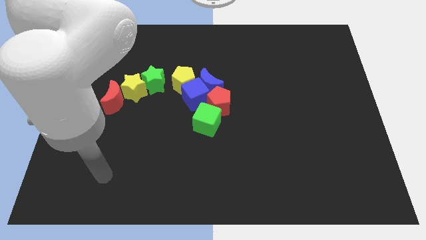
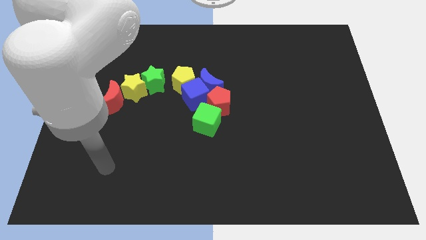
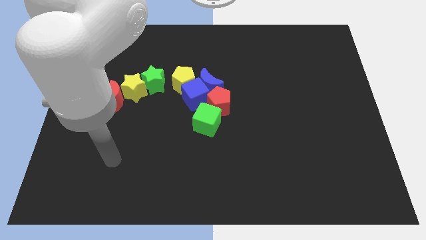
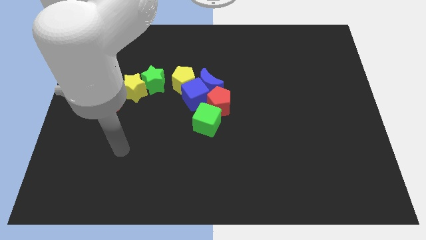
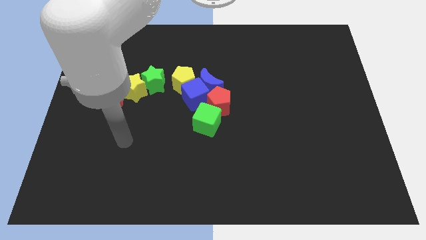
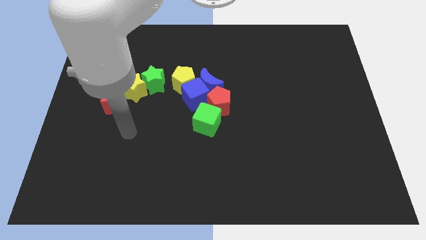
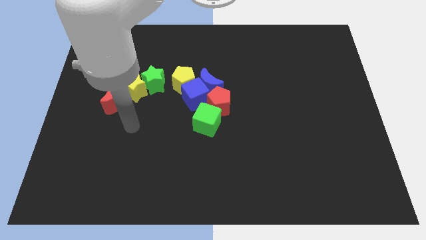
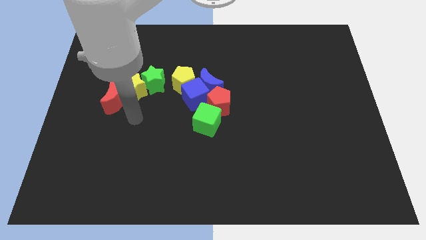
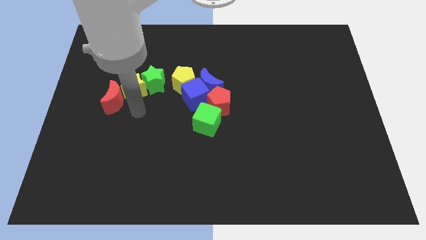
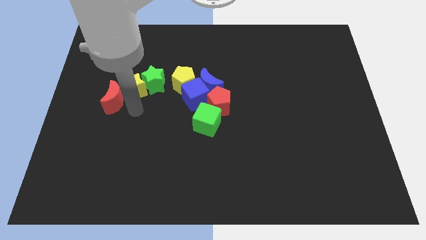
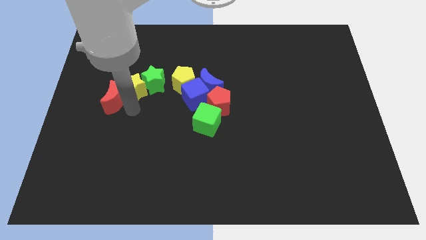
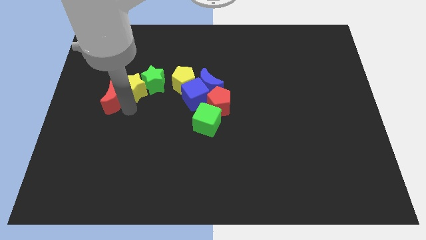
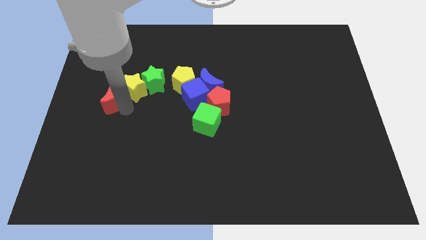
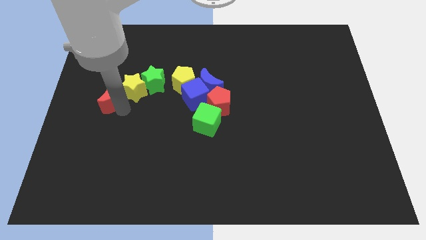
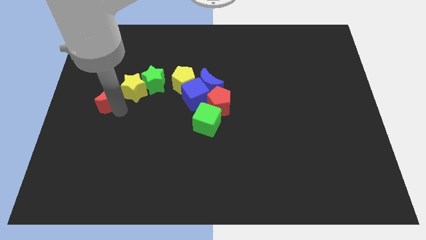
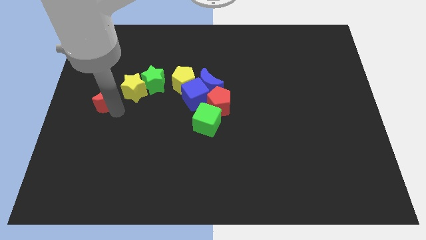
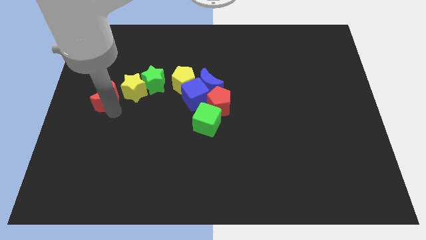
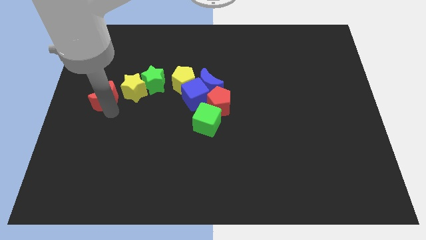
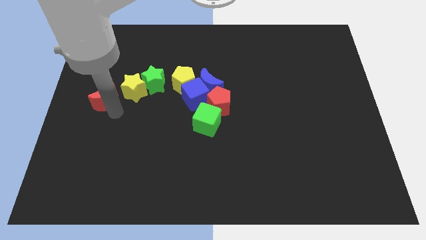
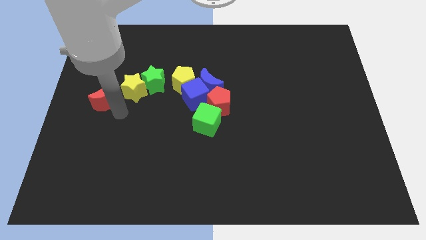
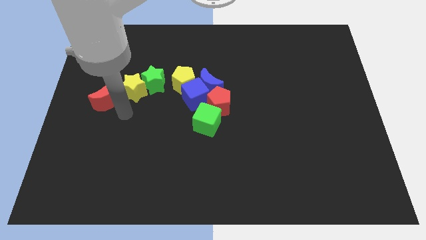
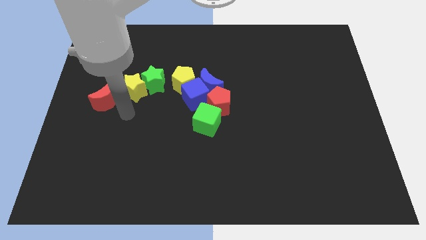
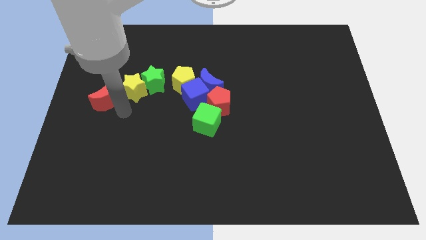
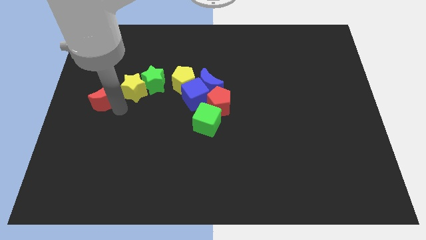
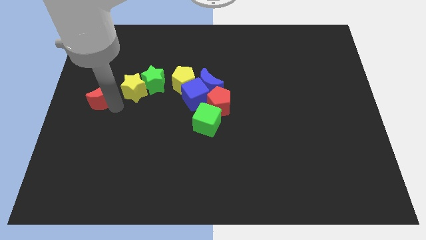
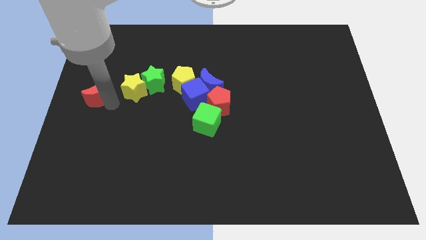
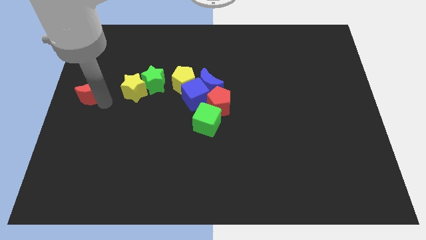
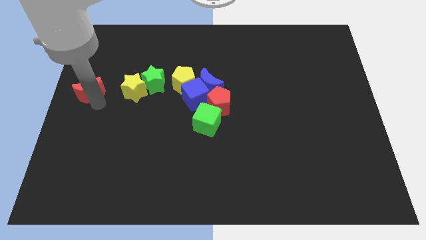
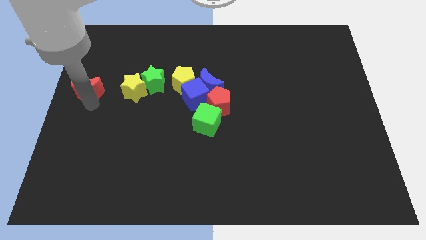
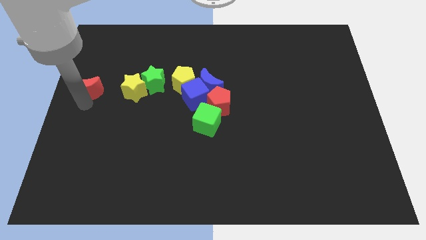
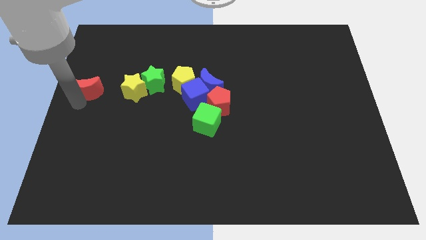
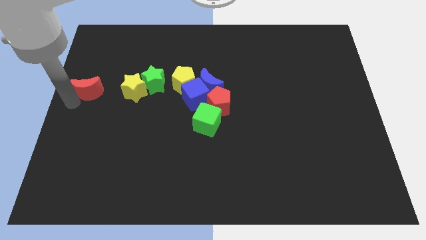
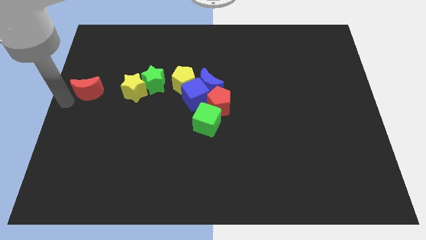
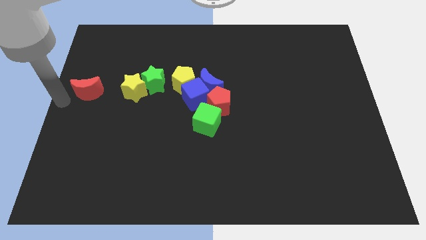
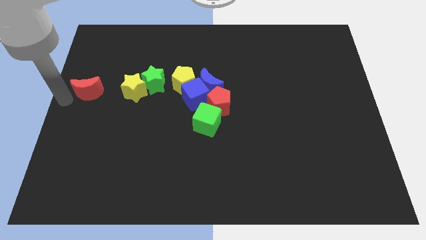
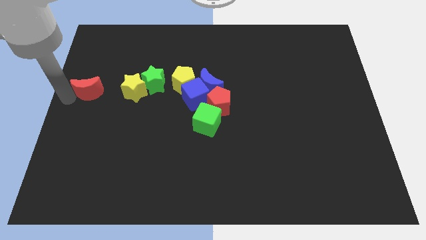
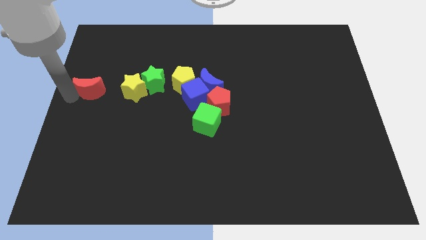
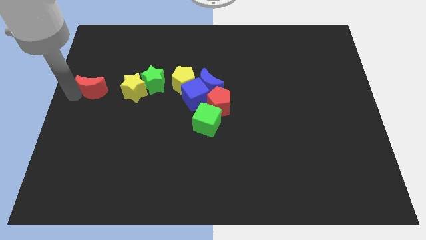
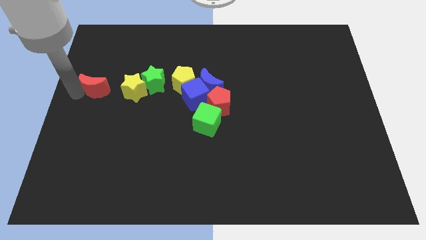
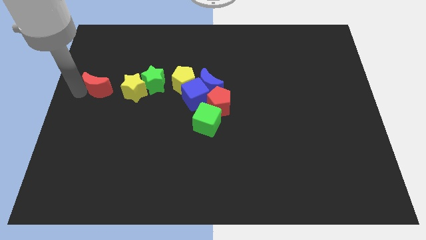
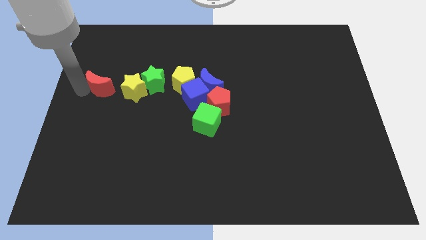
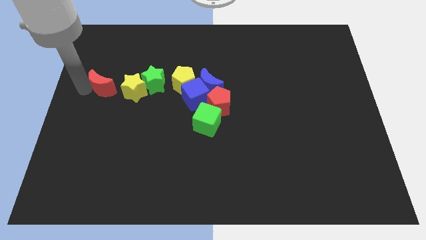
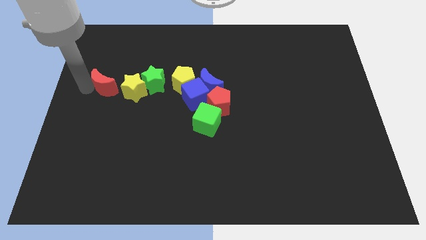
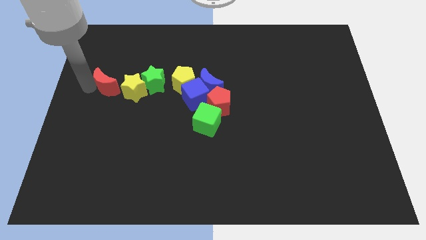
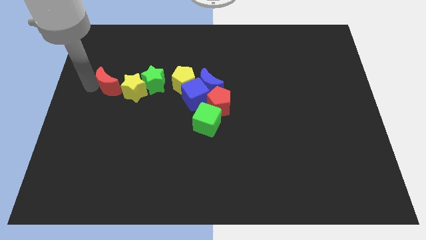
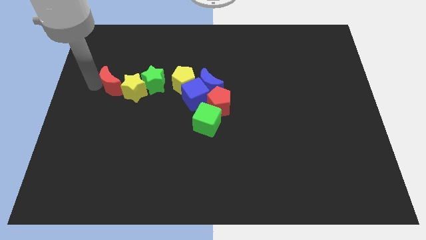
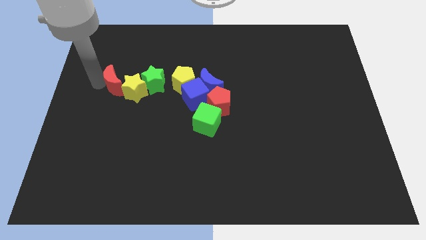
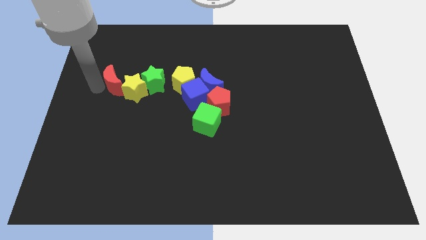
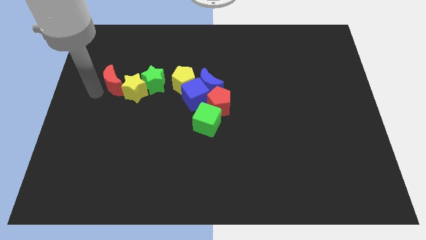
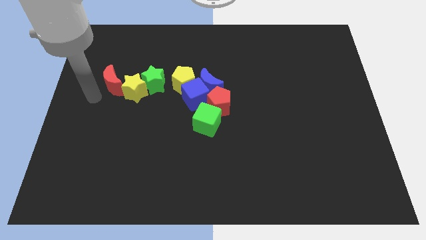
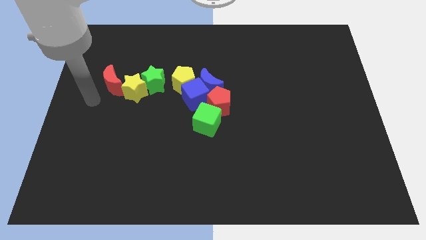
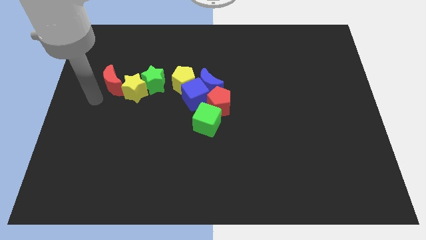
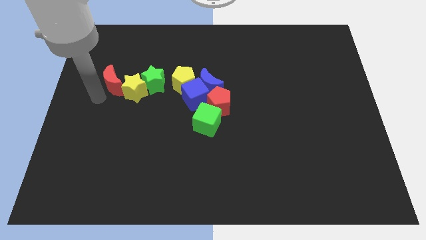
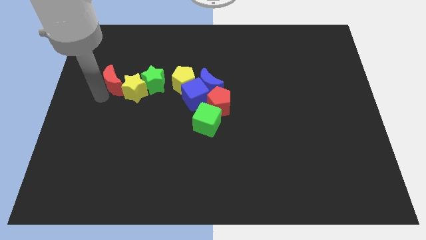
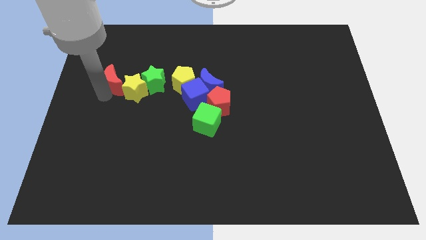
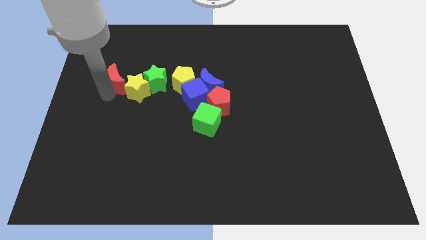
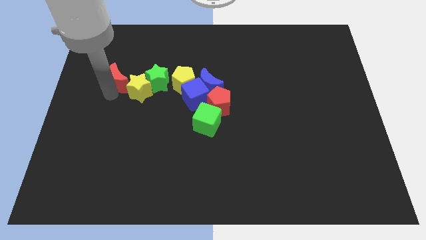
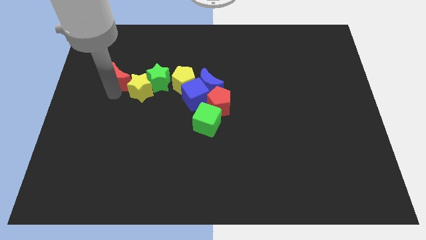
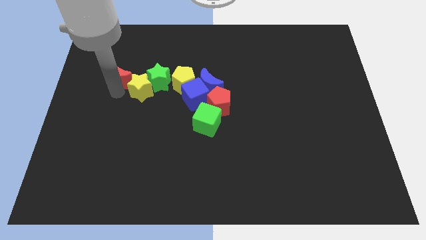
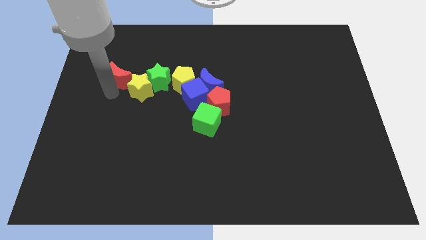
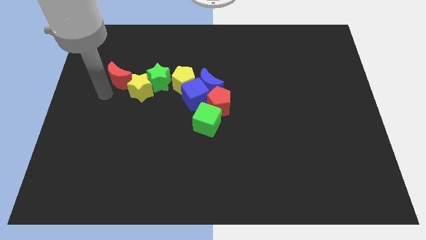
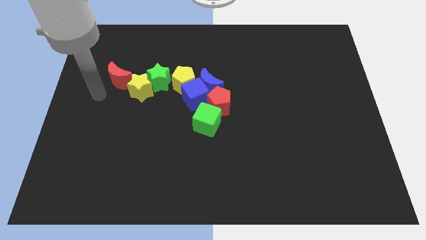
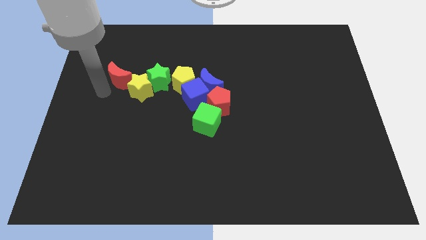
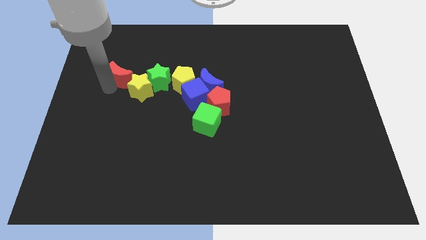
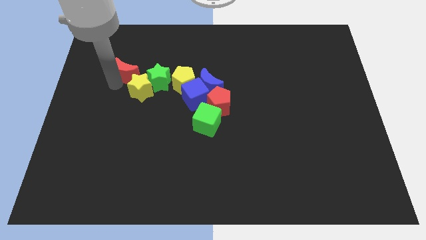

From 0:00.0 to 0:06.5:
move the red moon to the top left of the green star

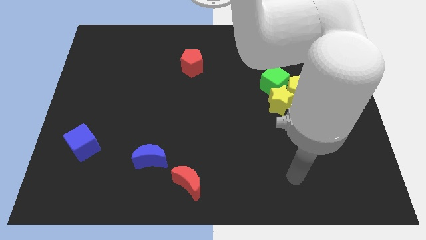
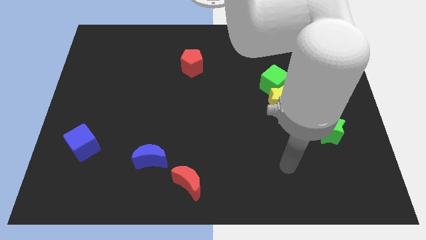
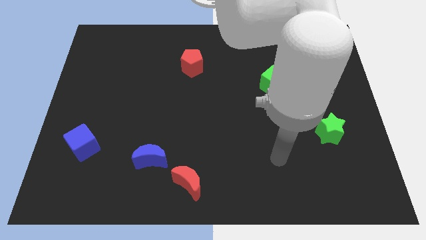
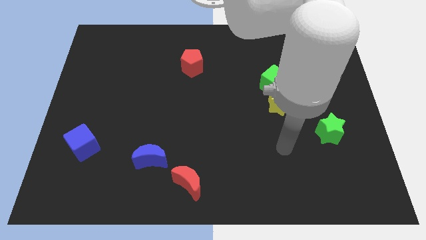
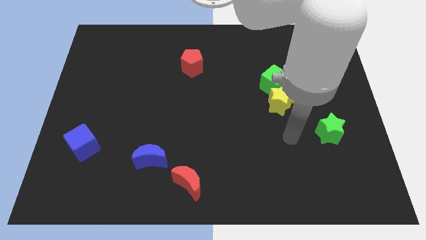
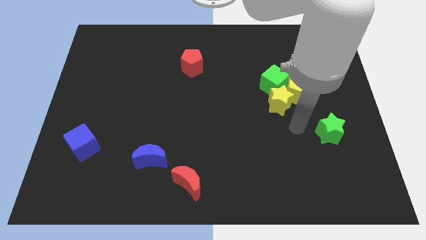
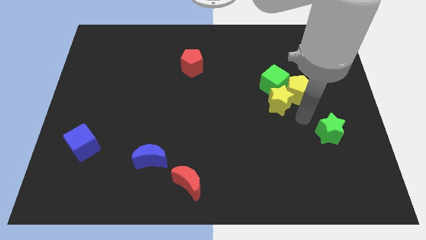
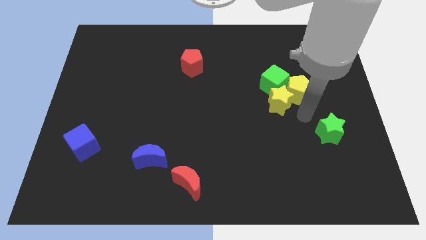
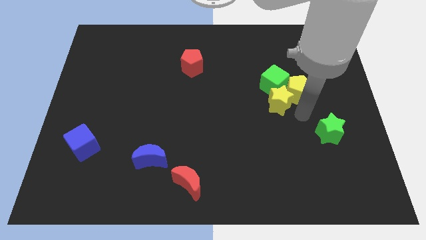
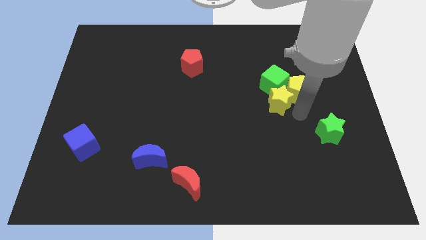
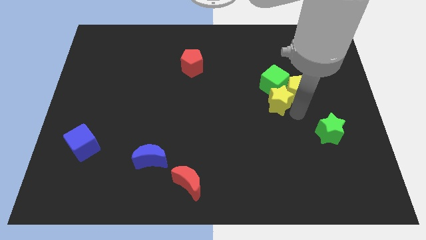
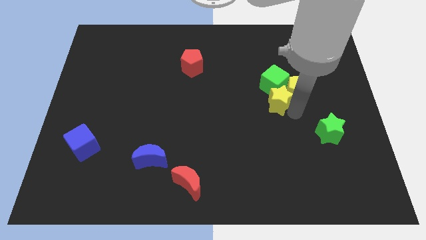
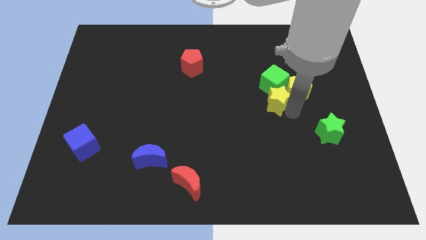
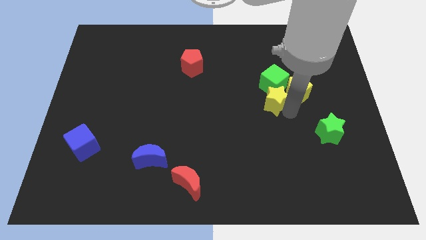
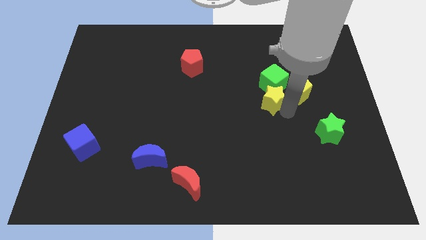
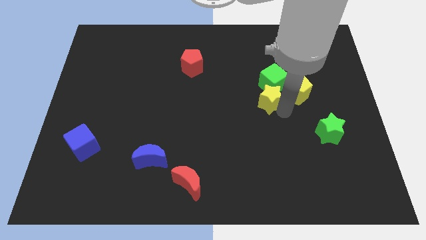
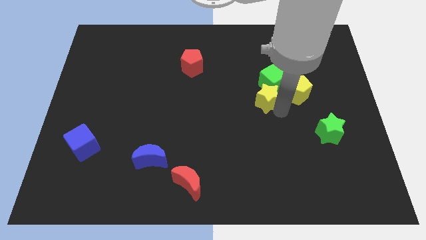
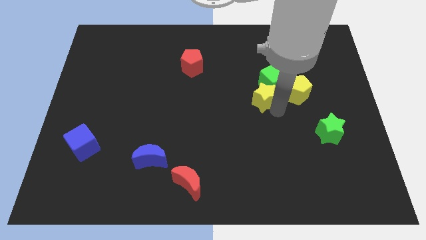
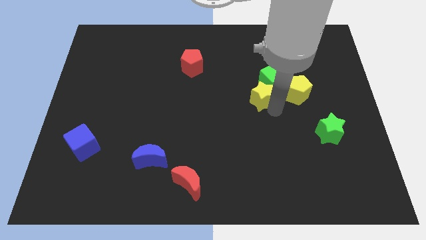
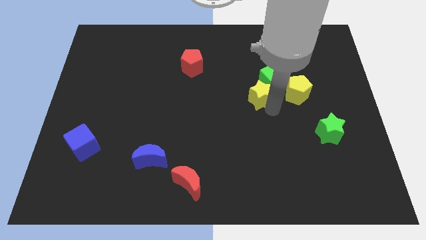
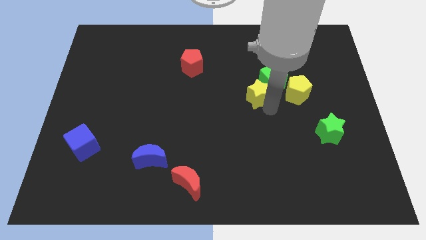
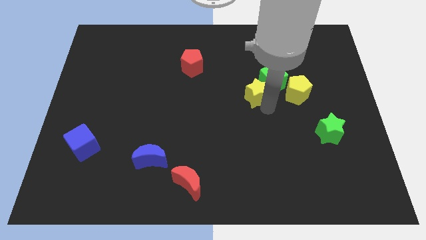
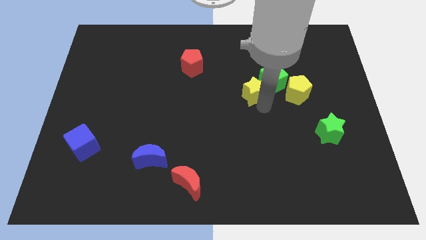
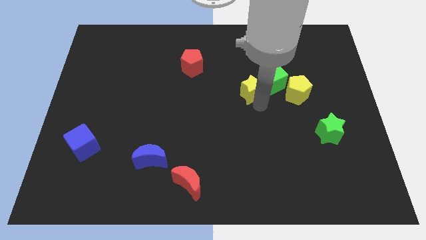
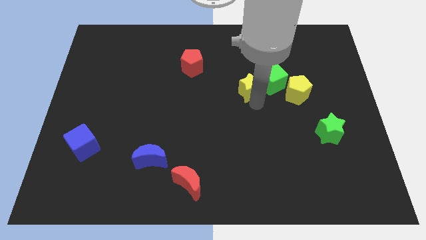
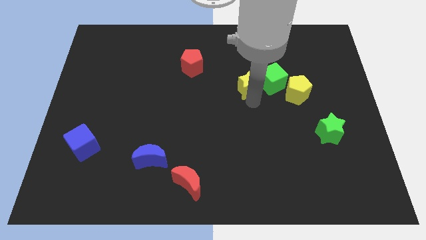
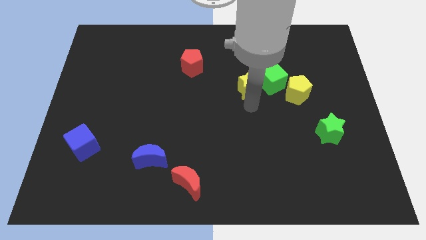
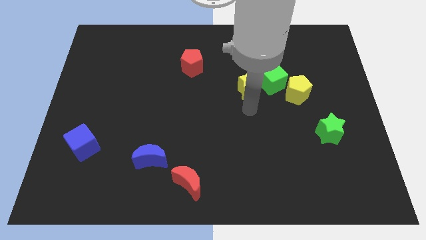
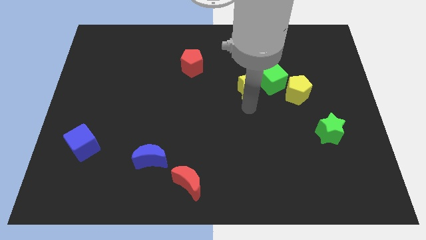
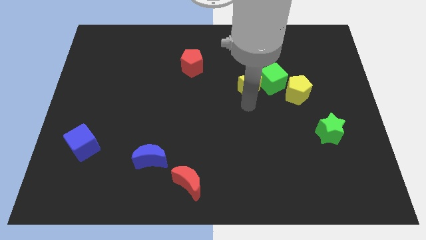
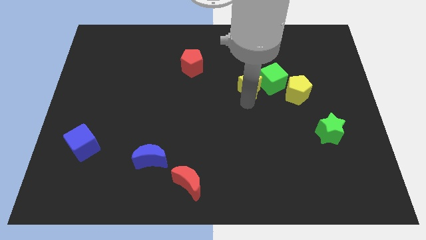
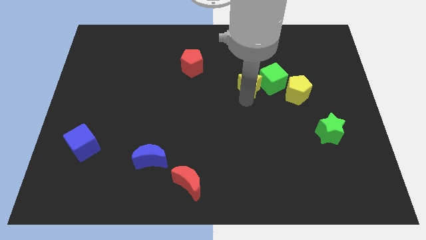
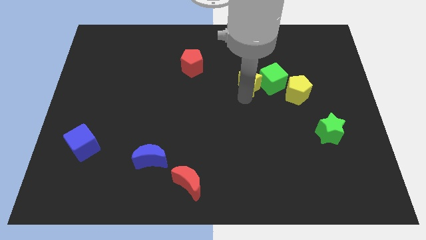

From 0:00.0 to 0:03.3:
put the yellow star to the top left side of the green cube
